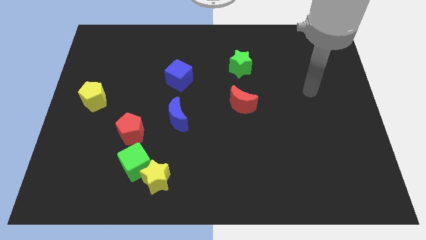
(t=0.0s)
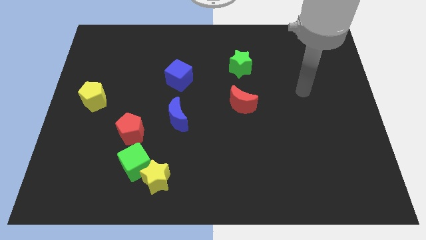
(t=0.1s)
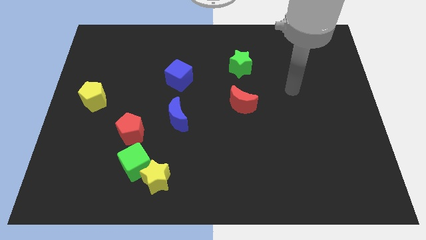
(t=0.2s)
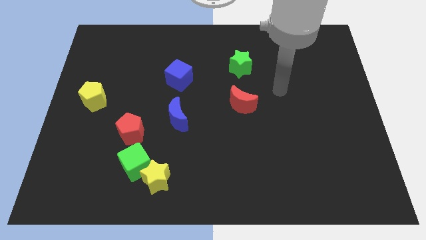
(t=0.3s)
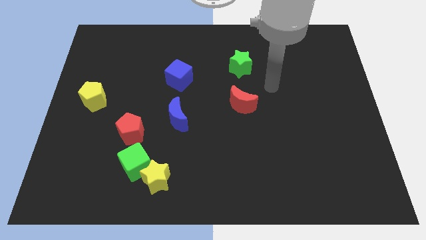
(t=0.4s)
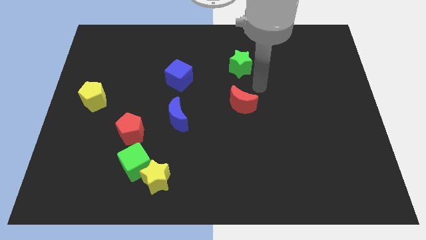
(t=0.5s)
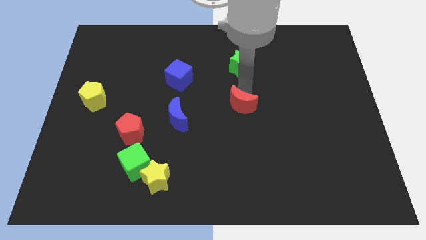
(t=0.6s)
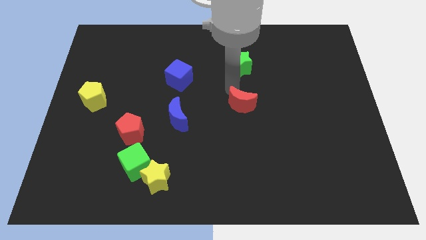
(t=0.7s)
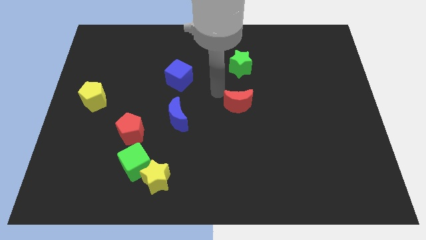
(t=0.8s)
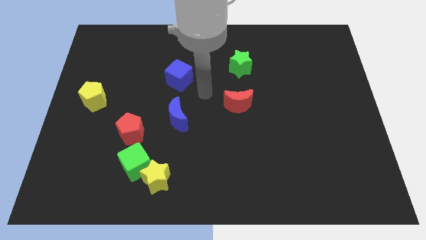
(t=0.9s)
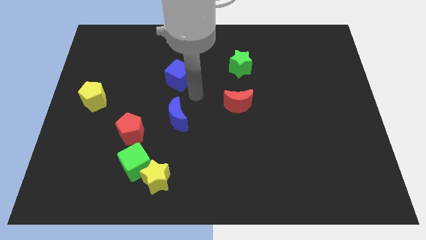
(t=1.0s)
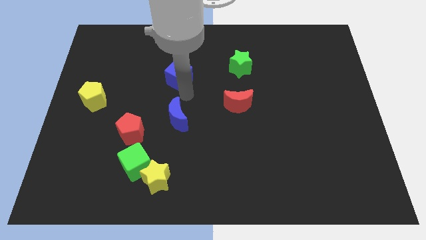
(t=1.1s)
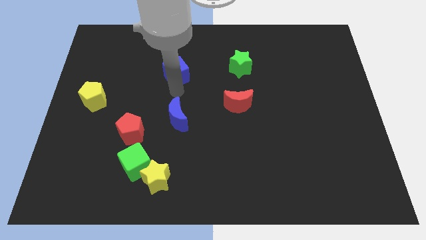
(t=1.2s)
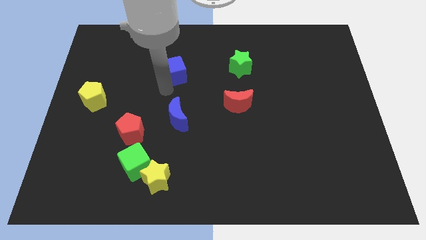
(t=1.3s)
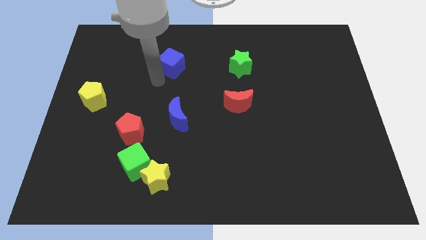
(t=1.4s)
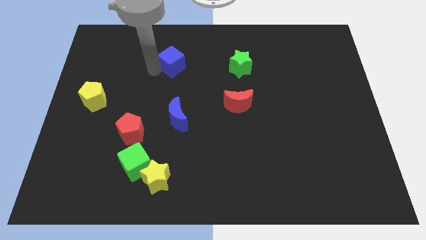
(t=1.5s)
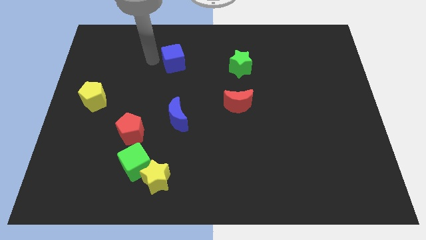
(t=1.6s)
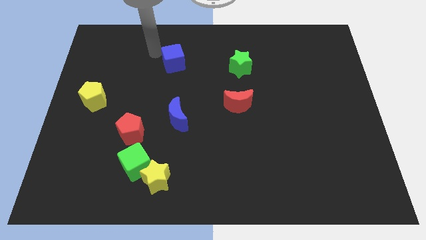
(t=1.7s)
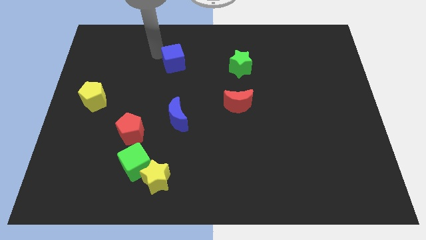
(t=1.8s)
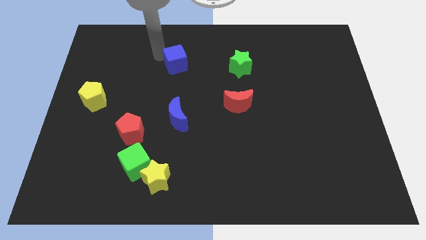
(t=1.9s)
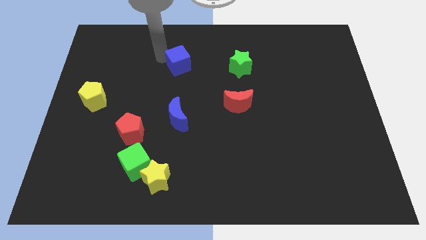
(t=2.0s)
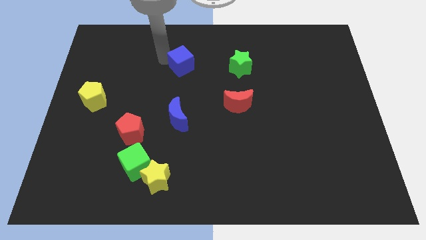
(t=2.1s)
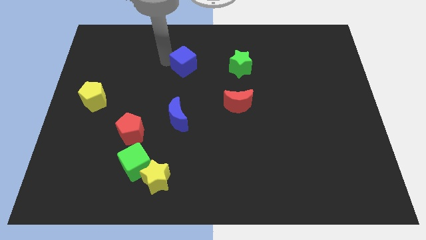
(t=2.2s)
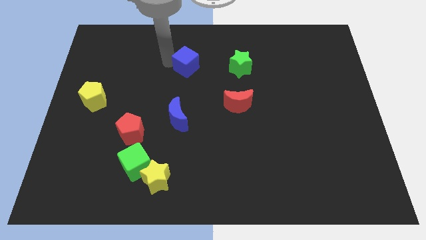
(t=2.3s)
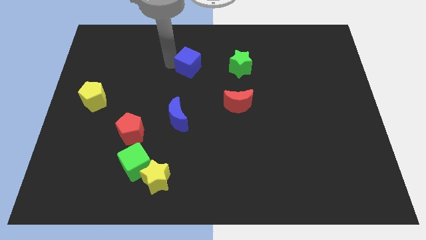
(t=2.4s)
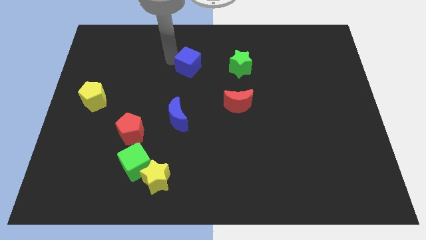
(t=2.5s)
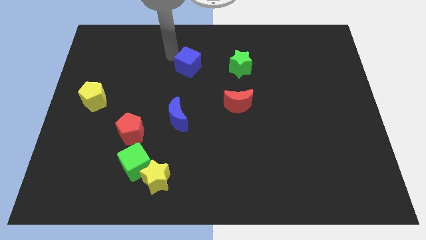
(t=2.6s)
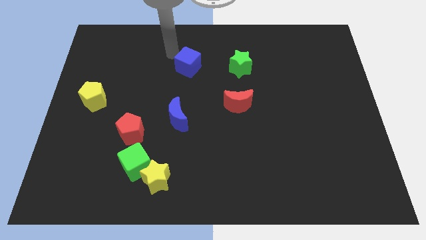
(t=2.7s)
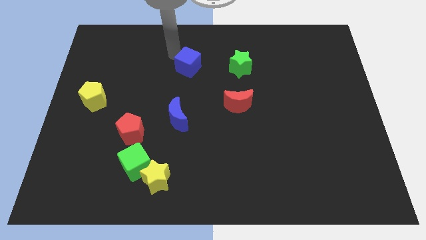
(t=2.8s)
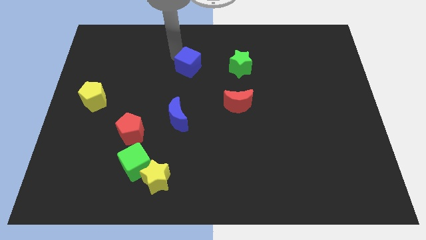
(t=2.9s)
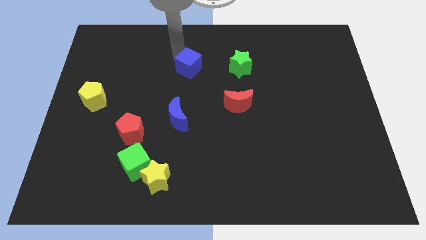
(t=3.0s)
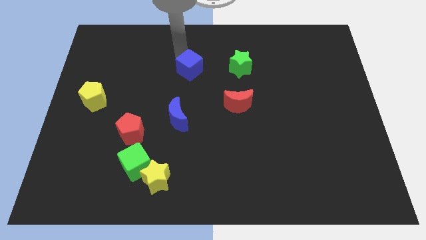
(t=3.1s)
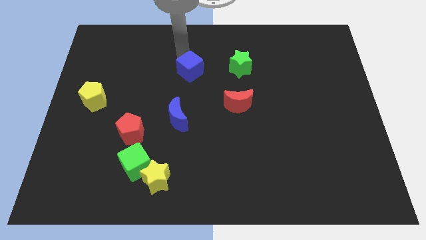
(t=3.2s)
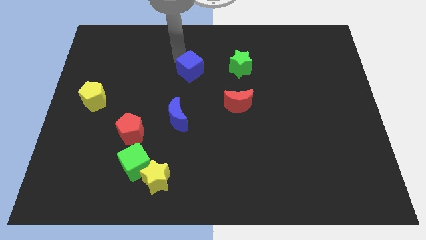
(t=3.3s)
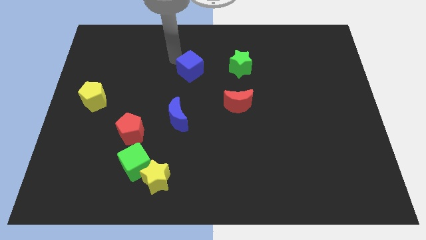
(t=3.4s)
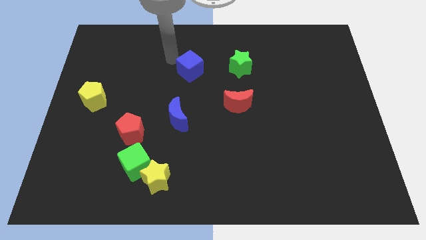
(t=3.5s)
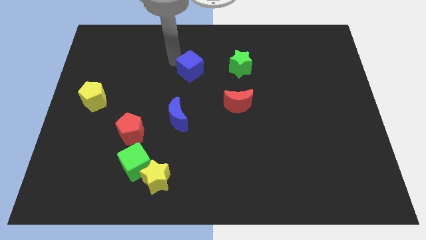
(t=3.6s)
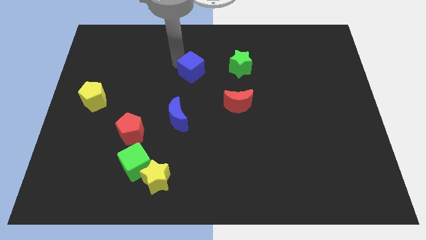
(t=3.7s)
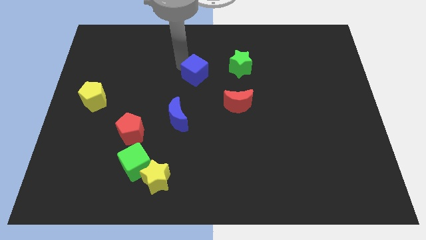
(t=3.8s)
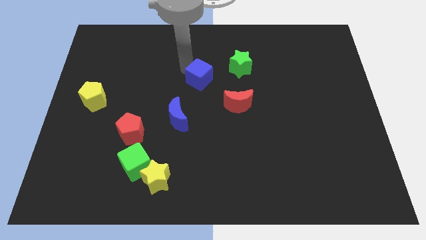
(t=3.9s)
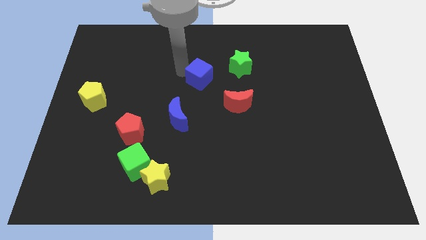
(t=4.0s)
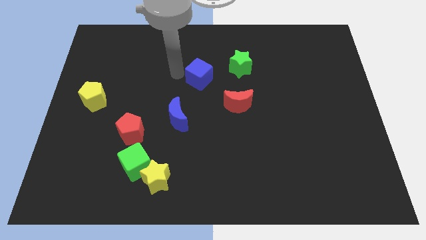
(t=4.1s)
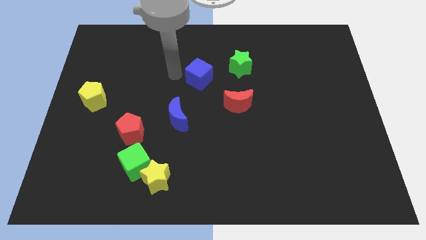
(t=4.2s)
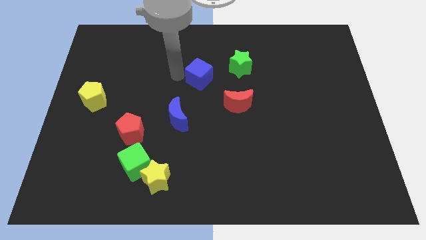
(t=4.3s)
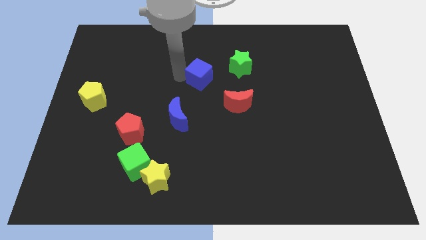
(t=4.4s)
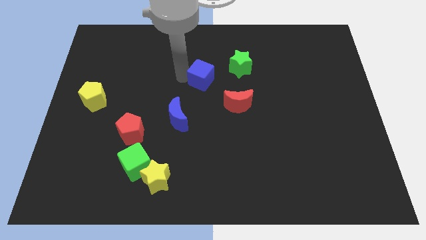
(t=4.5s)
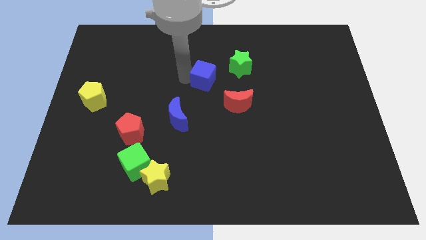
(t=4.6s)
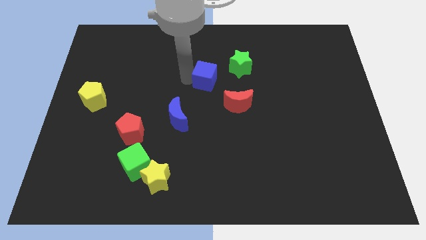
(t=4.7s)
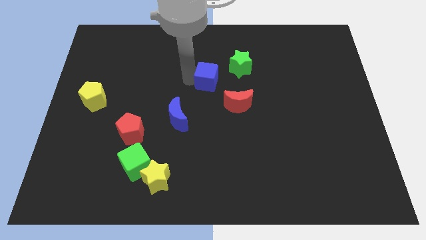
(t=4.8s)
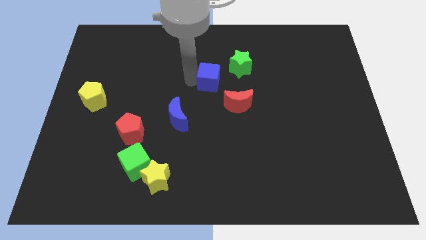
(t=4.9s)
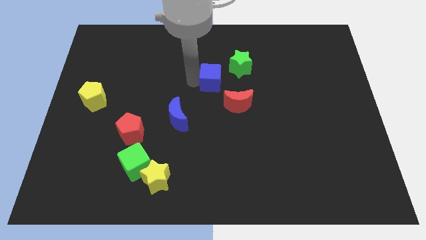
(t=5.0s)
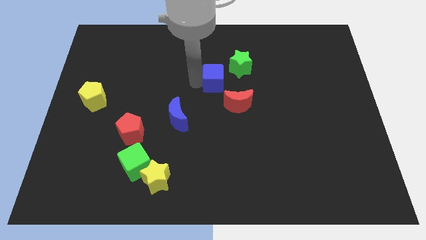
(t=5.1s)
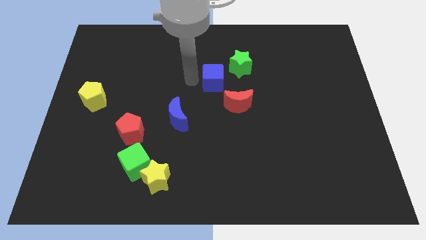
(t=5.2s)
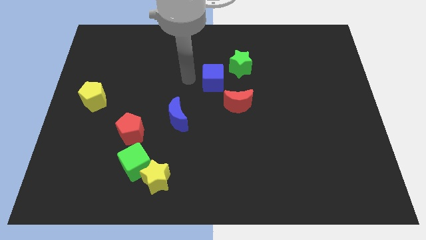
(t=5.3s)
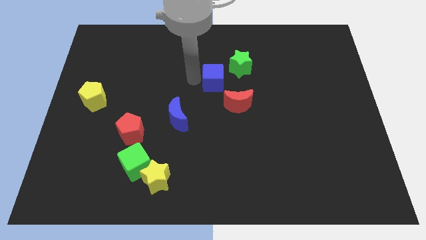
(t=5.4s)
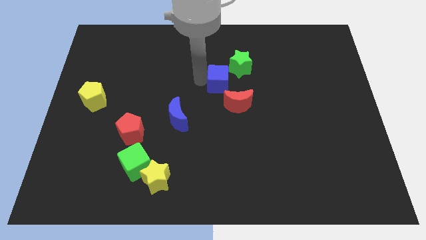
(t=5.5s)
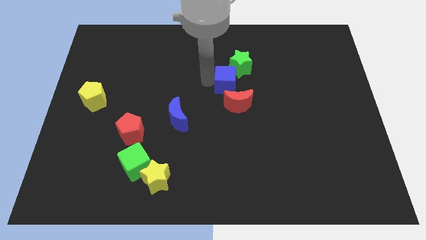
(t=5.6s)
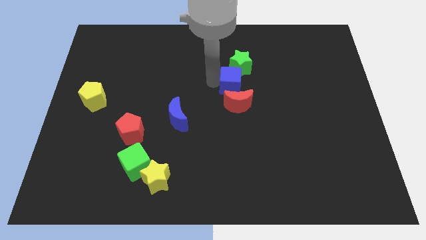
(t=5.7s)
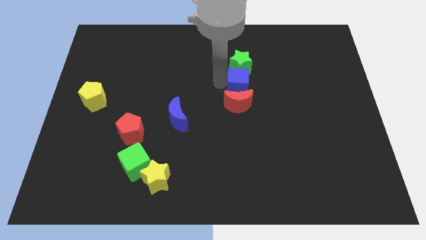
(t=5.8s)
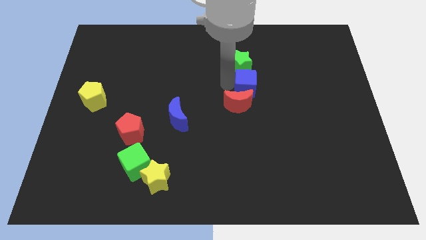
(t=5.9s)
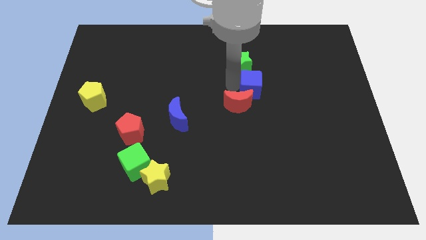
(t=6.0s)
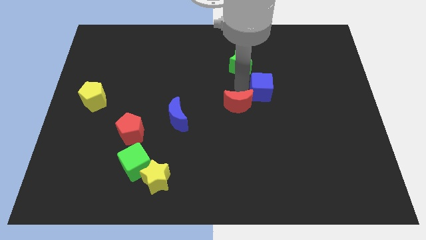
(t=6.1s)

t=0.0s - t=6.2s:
push the blue cube right

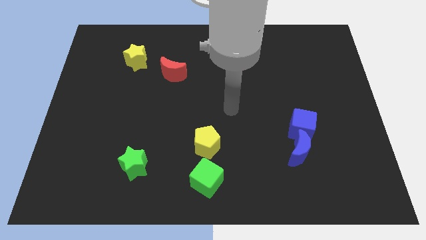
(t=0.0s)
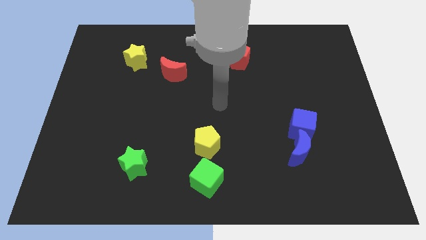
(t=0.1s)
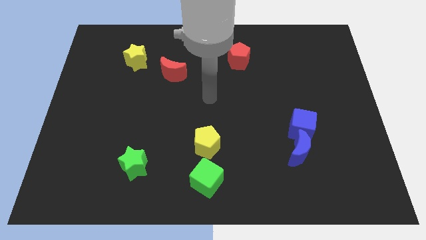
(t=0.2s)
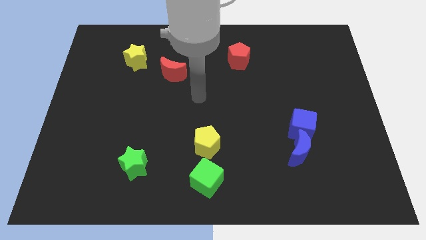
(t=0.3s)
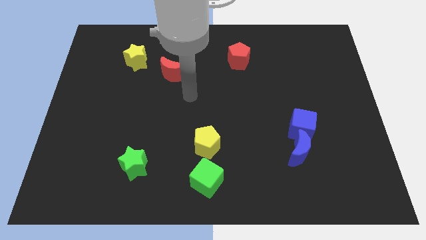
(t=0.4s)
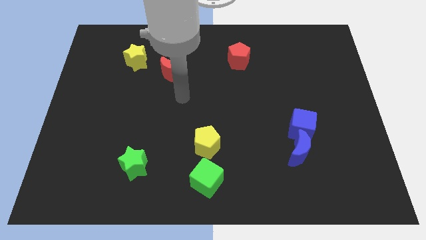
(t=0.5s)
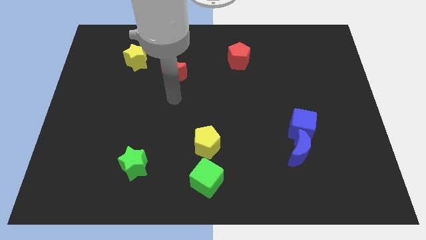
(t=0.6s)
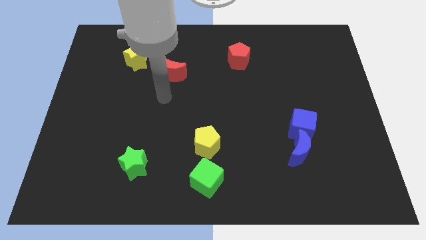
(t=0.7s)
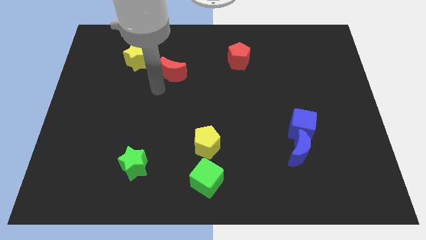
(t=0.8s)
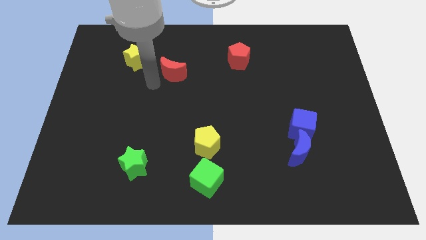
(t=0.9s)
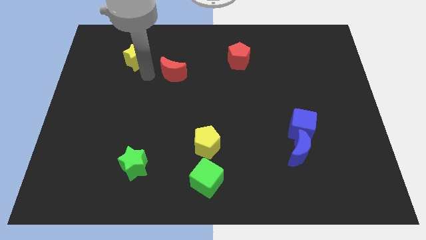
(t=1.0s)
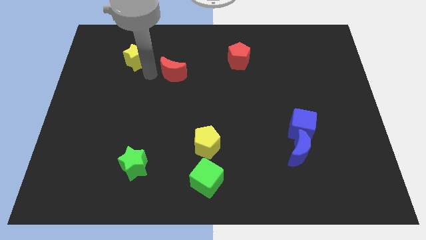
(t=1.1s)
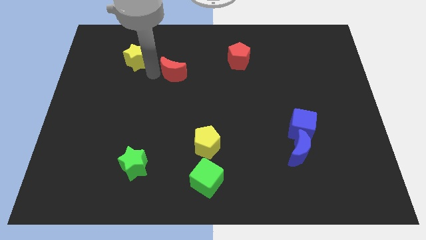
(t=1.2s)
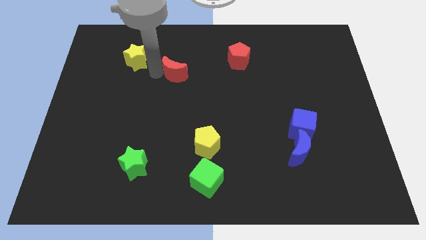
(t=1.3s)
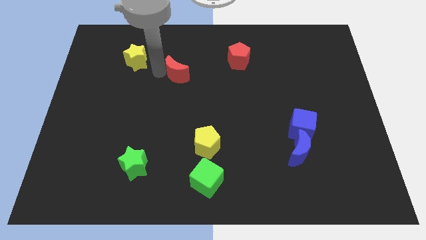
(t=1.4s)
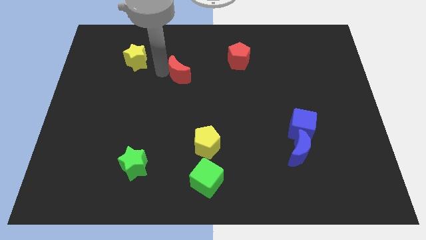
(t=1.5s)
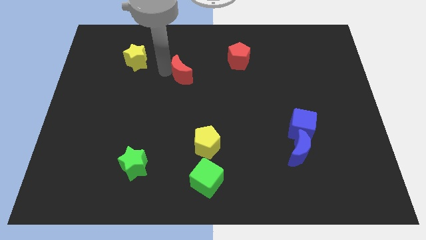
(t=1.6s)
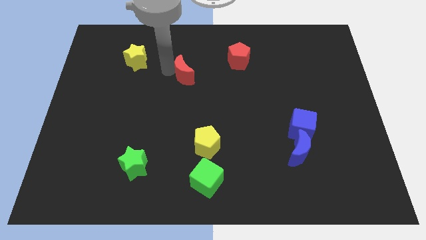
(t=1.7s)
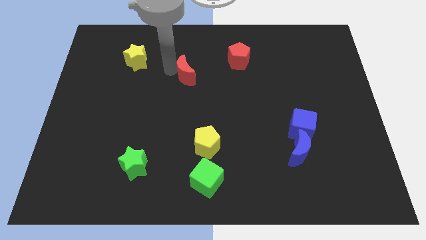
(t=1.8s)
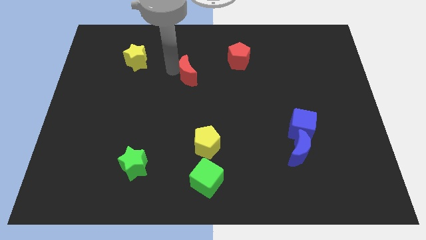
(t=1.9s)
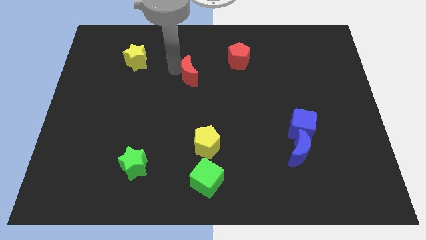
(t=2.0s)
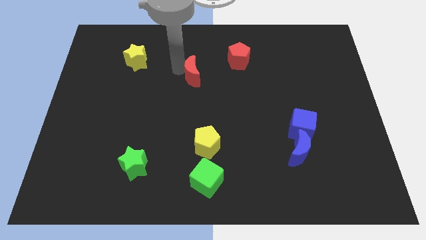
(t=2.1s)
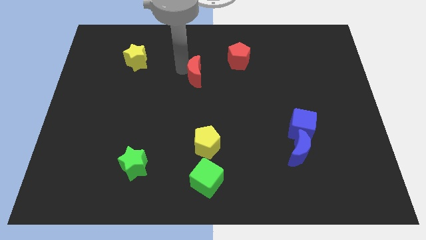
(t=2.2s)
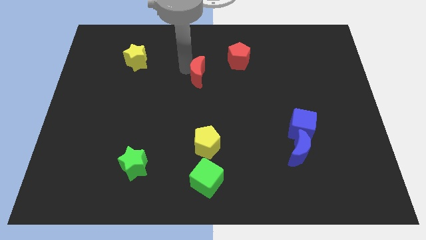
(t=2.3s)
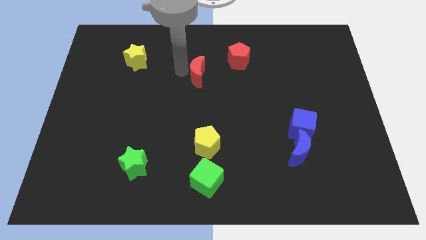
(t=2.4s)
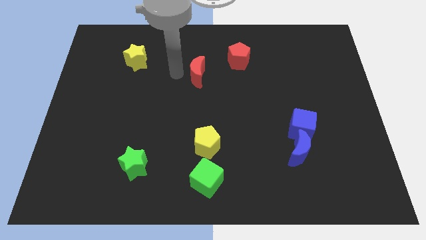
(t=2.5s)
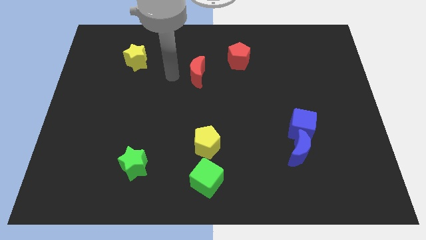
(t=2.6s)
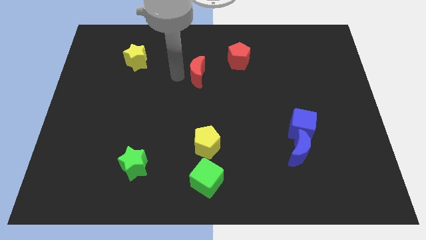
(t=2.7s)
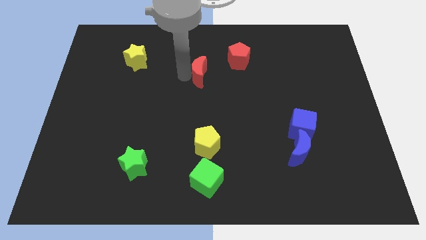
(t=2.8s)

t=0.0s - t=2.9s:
slightly push the red moon right
